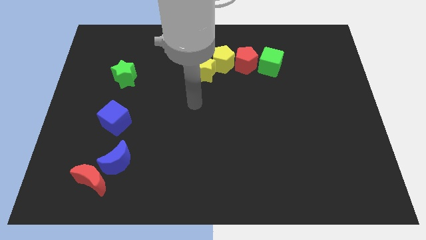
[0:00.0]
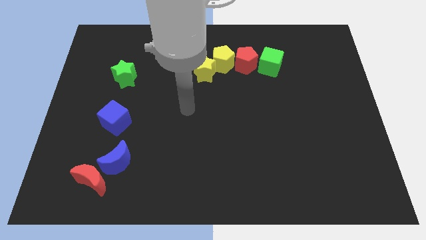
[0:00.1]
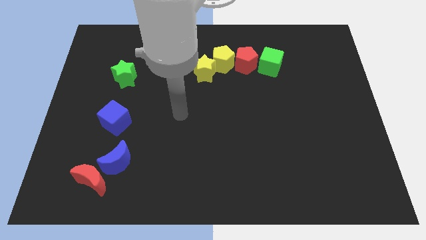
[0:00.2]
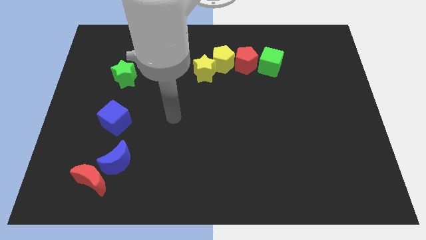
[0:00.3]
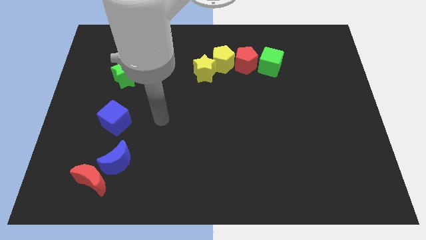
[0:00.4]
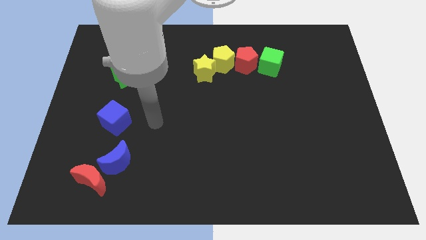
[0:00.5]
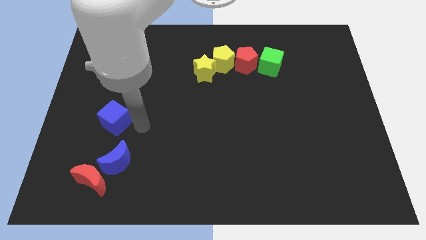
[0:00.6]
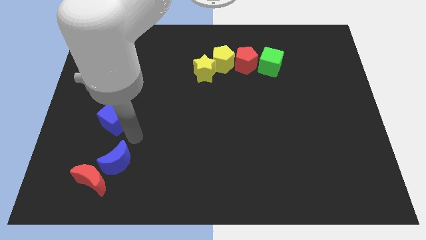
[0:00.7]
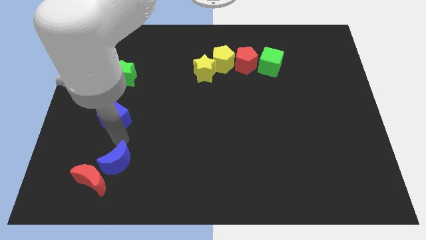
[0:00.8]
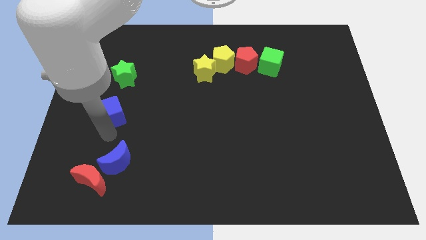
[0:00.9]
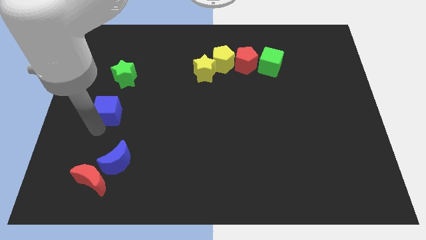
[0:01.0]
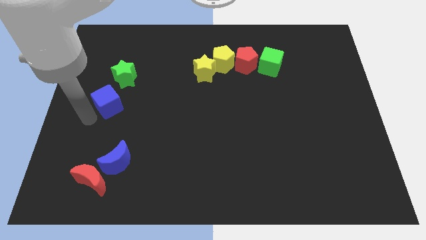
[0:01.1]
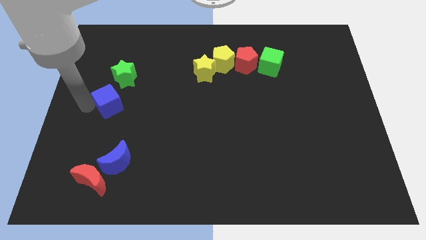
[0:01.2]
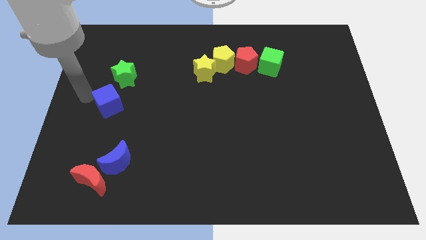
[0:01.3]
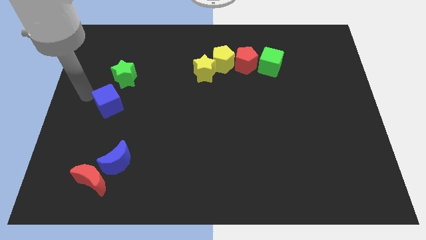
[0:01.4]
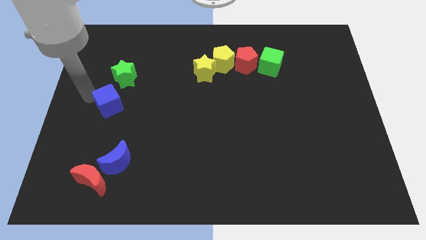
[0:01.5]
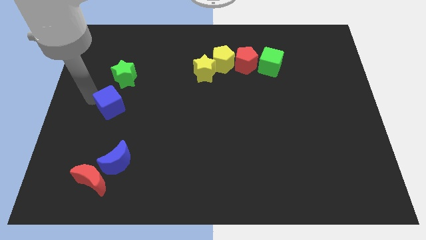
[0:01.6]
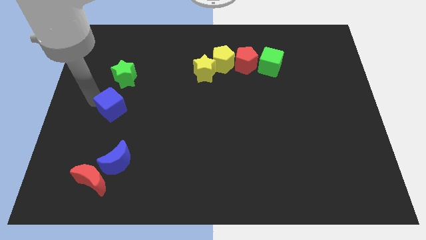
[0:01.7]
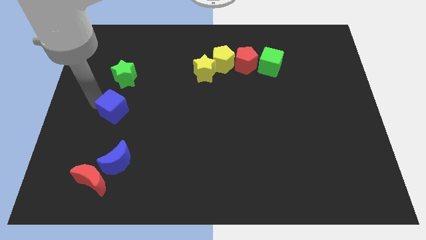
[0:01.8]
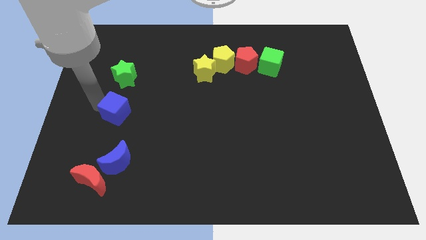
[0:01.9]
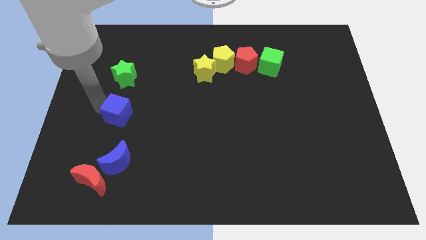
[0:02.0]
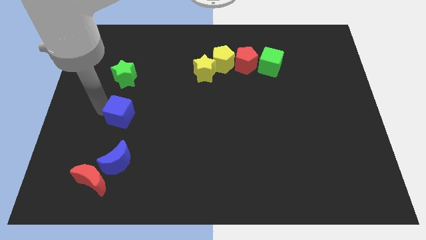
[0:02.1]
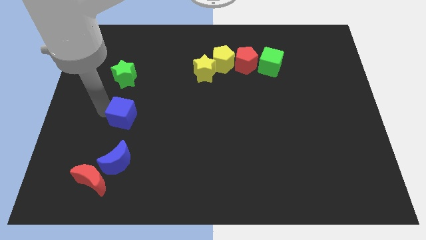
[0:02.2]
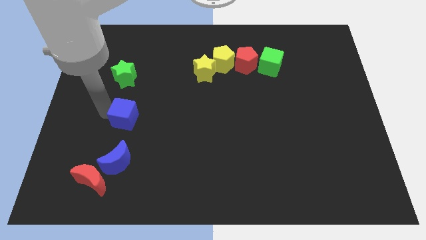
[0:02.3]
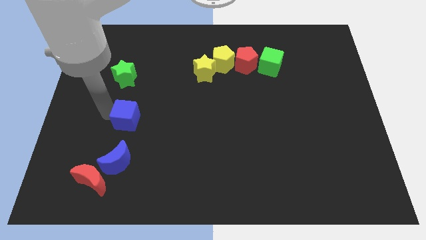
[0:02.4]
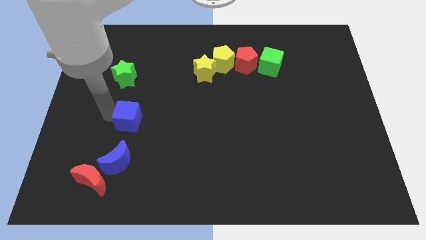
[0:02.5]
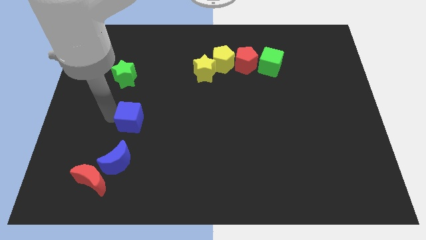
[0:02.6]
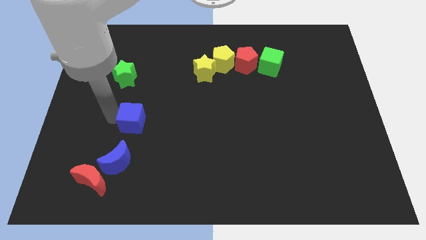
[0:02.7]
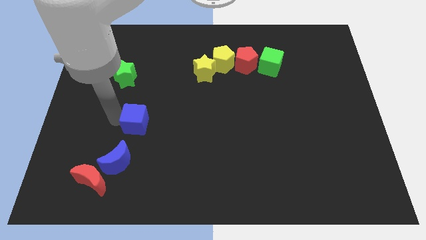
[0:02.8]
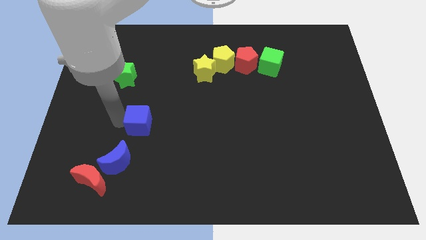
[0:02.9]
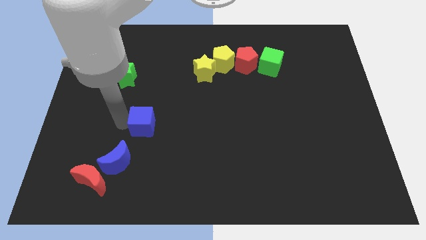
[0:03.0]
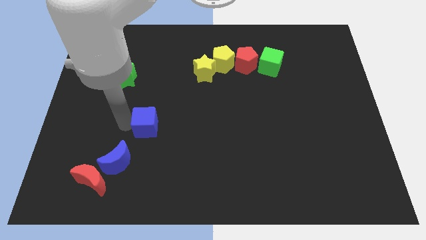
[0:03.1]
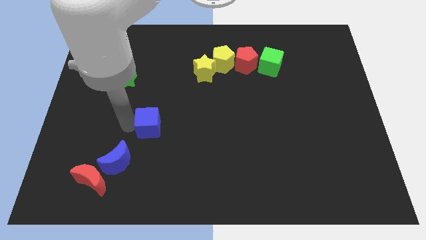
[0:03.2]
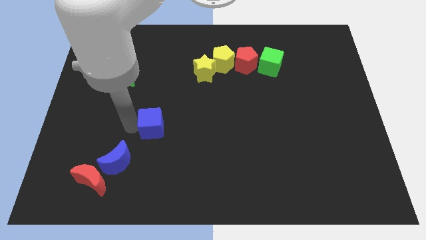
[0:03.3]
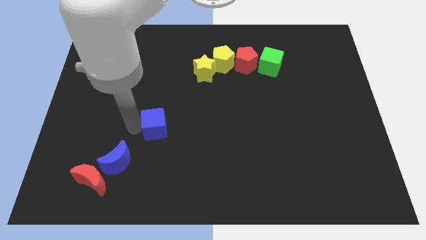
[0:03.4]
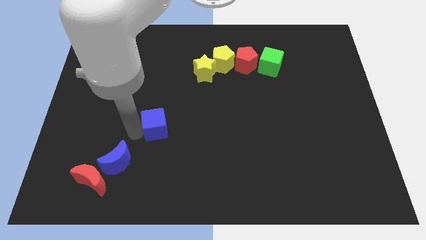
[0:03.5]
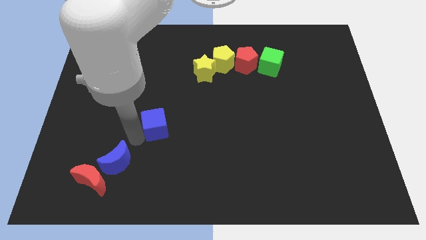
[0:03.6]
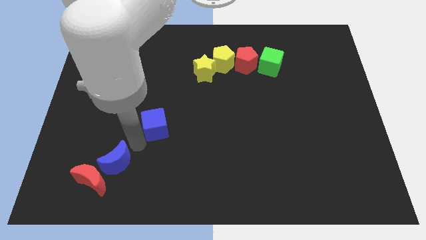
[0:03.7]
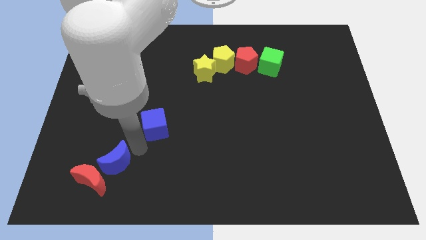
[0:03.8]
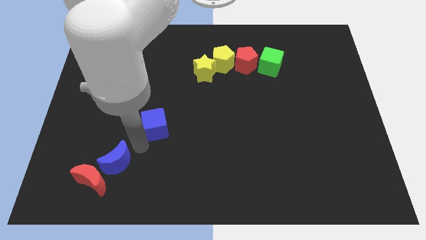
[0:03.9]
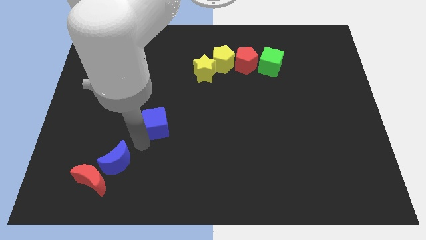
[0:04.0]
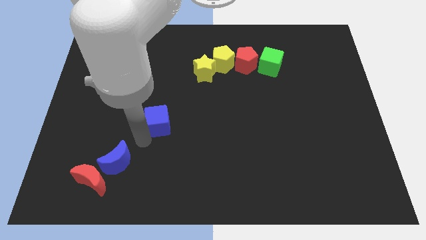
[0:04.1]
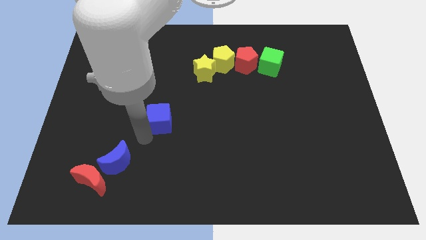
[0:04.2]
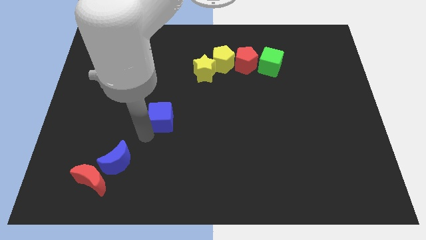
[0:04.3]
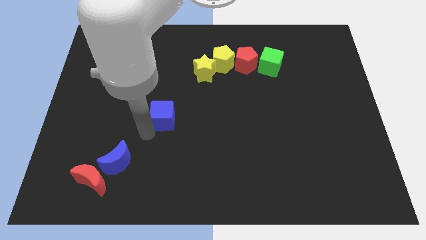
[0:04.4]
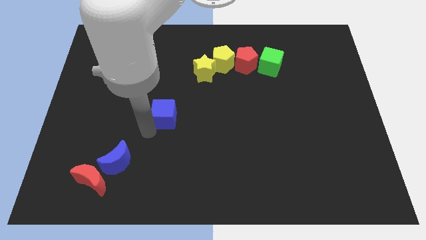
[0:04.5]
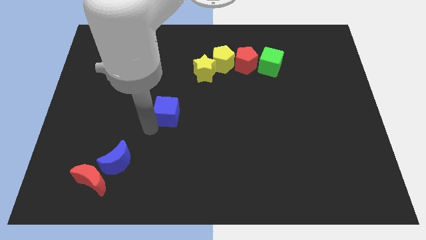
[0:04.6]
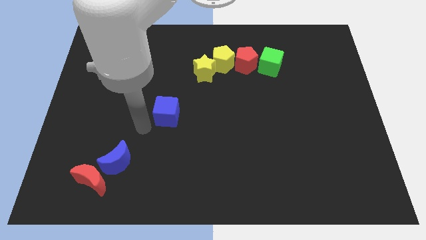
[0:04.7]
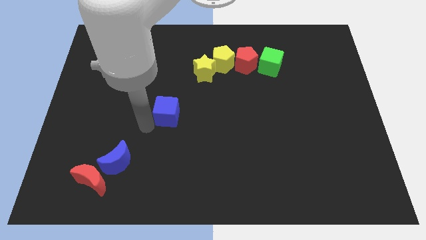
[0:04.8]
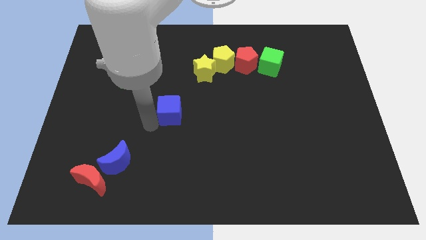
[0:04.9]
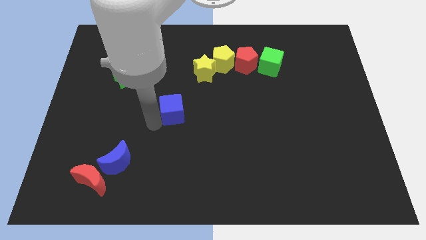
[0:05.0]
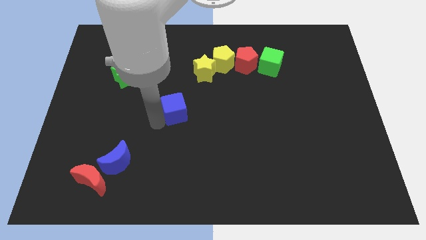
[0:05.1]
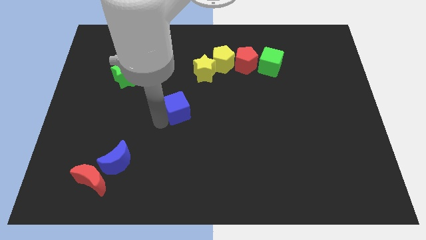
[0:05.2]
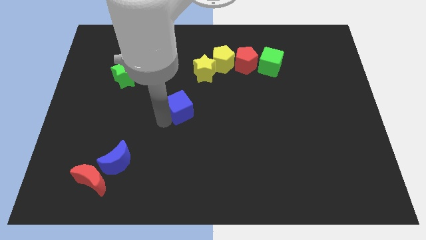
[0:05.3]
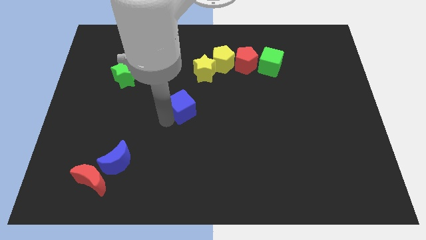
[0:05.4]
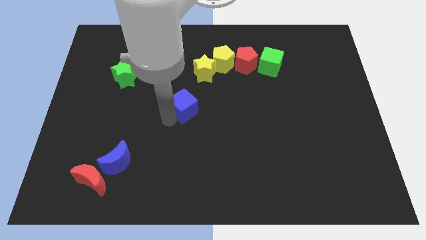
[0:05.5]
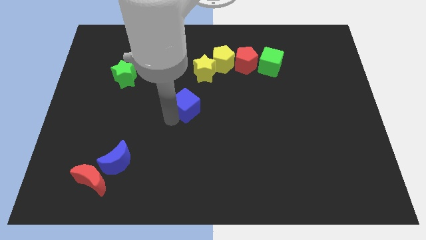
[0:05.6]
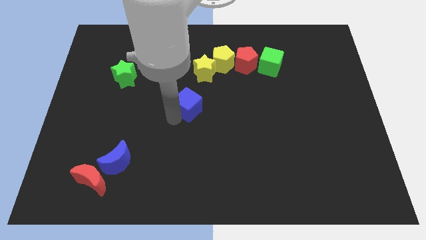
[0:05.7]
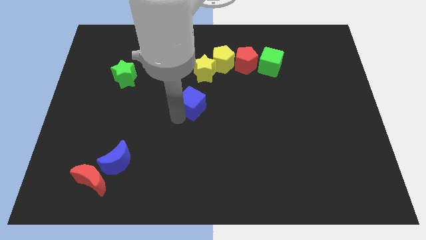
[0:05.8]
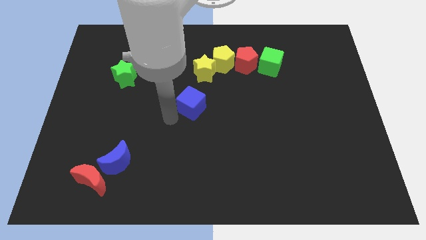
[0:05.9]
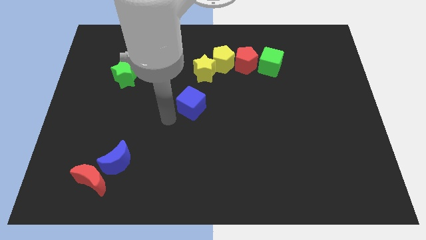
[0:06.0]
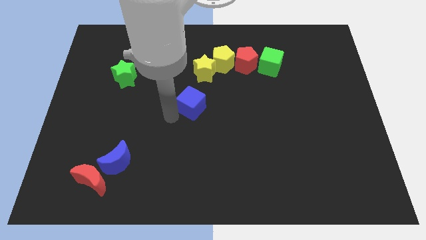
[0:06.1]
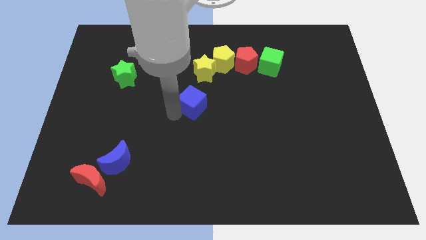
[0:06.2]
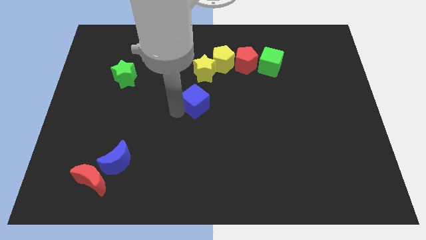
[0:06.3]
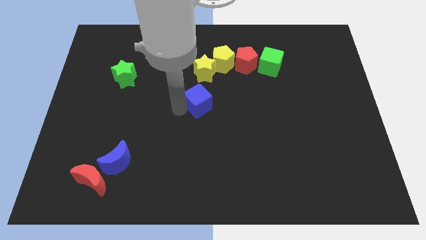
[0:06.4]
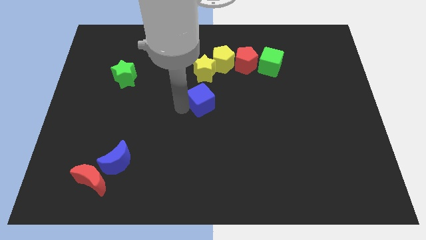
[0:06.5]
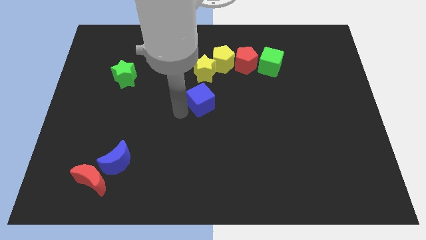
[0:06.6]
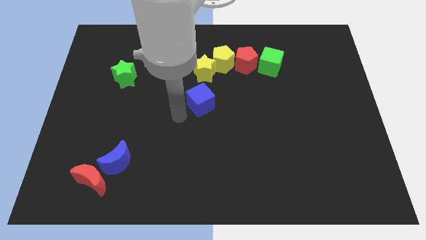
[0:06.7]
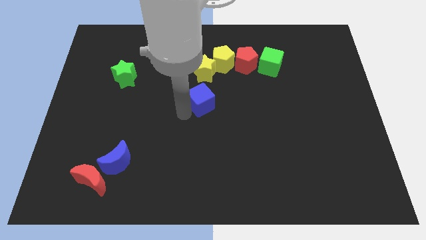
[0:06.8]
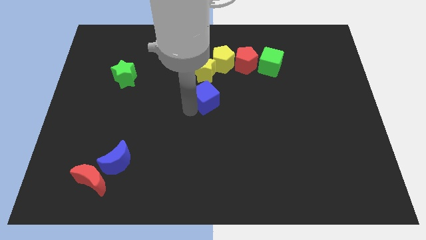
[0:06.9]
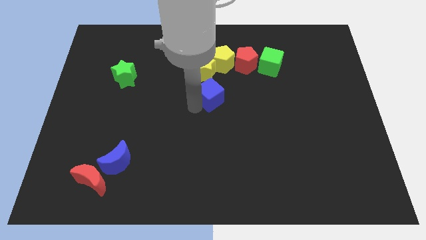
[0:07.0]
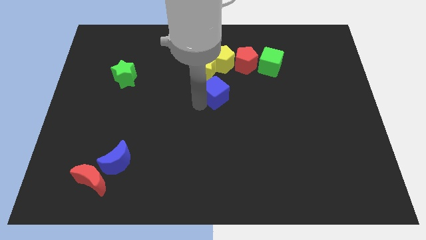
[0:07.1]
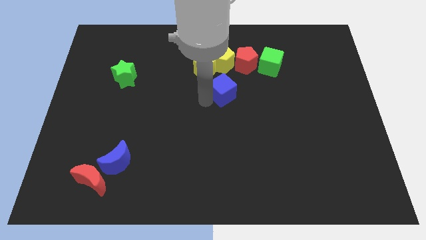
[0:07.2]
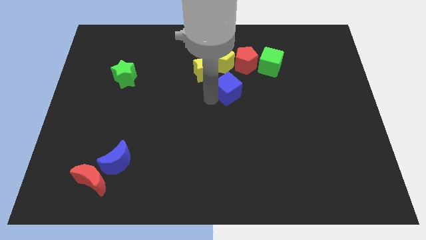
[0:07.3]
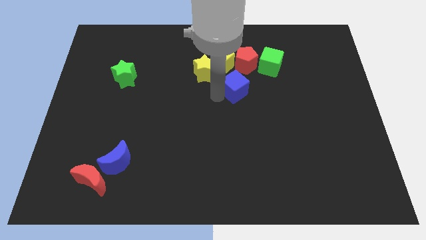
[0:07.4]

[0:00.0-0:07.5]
slide the blue cube to the bottom left side of the green cube
